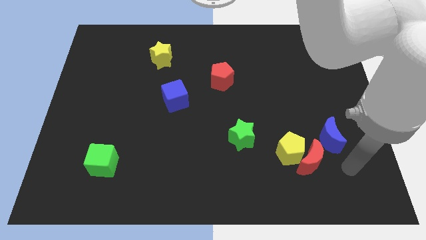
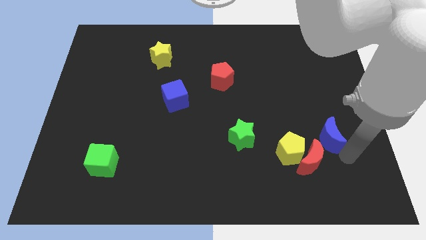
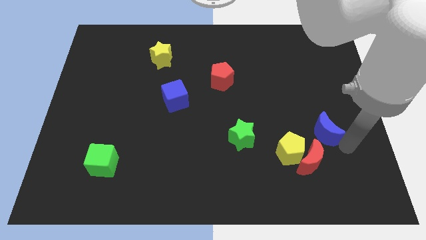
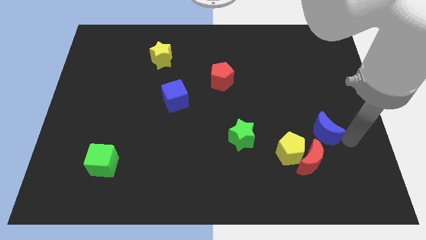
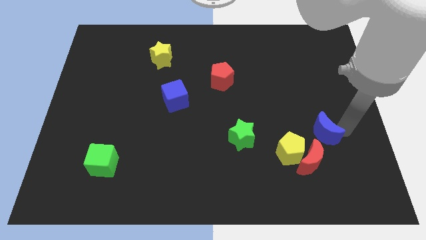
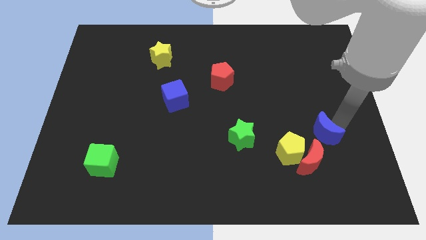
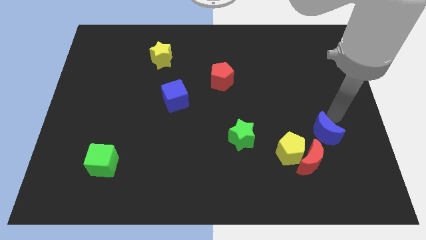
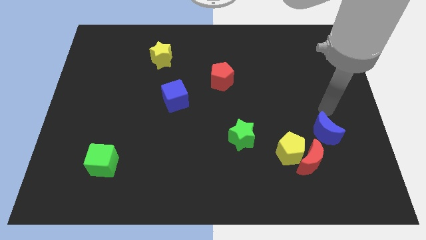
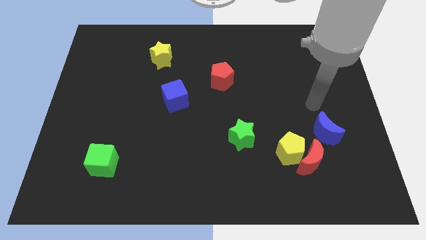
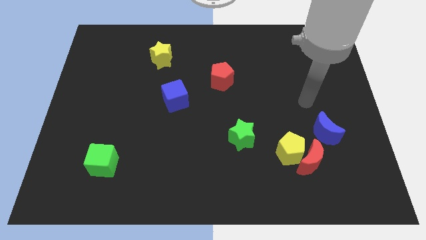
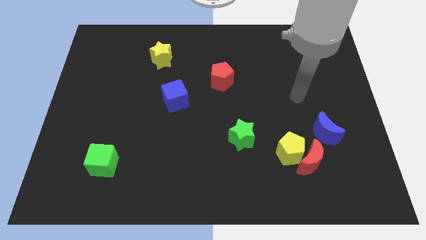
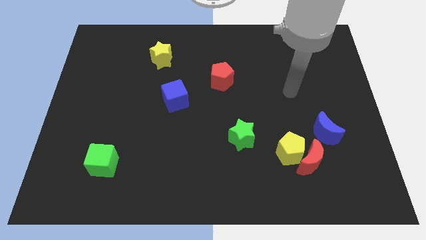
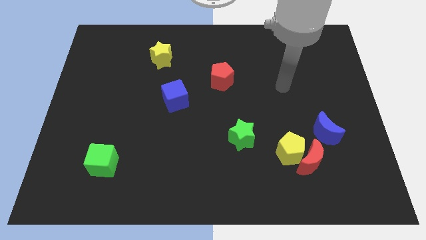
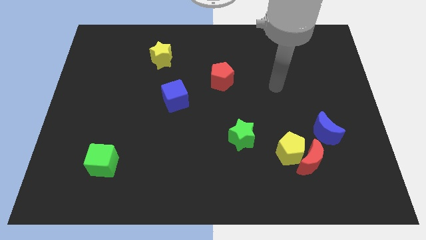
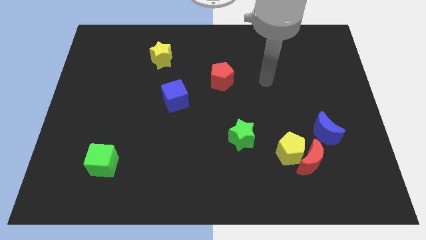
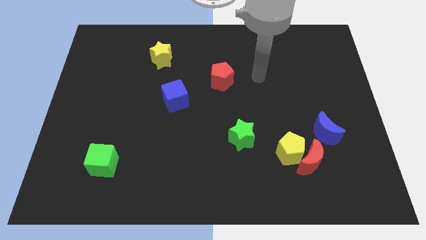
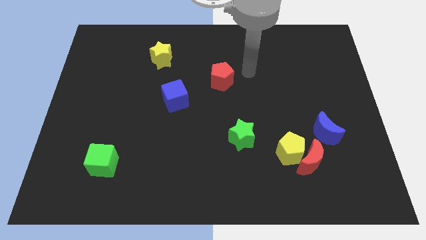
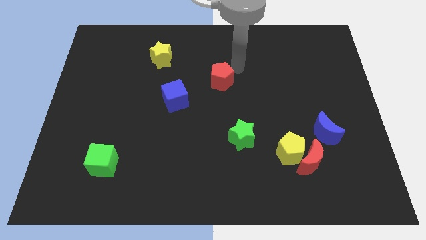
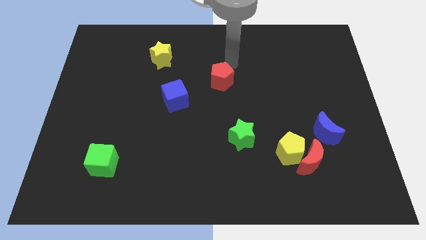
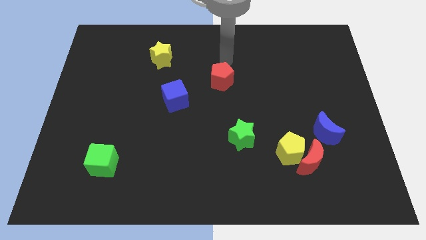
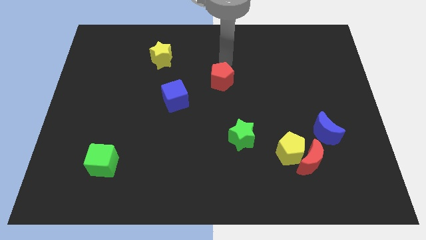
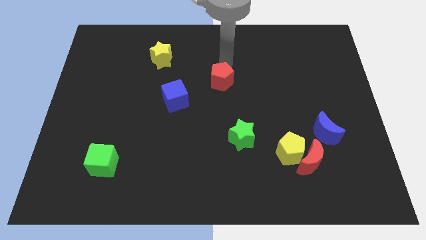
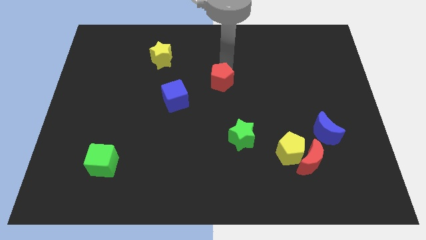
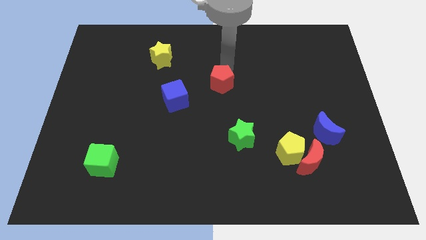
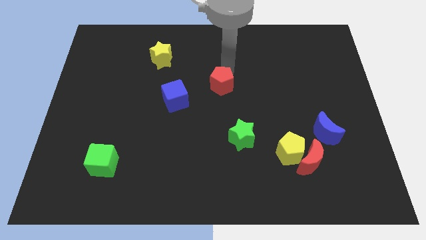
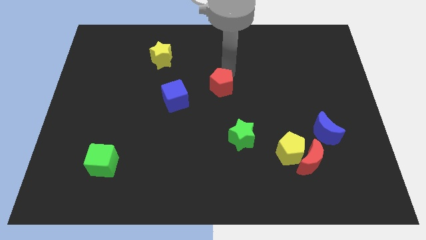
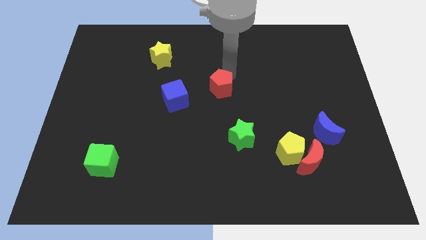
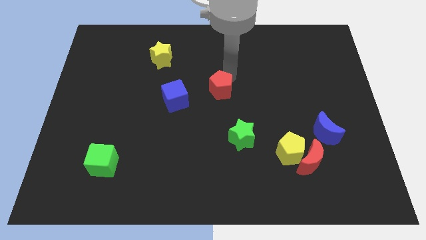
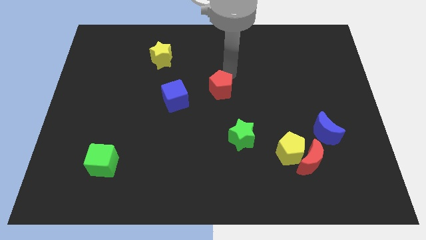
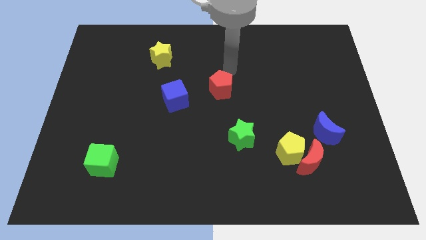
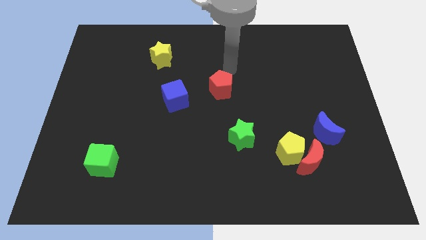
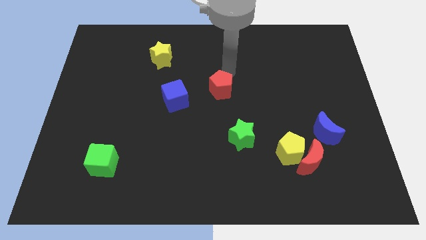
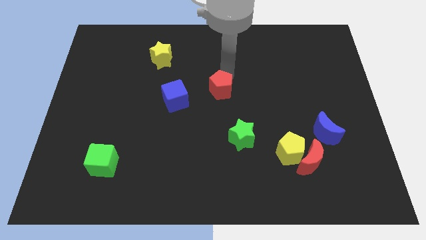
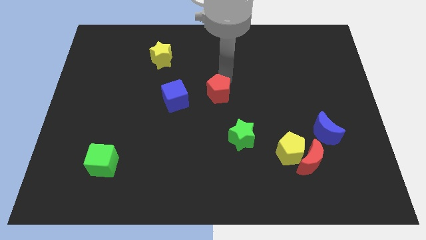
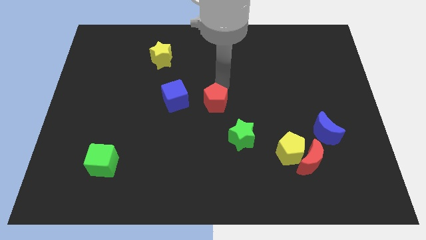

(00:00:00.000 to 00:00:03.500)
slide the red pentagon a bit down

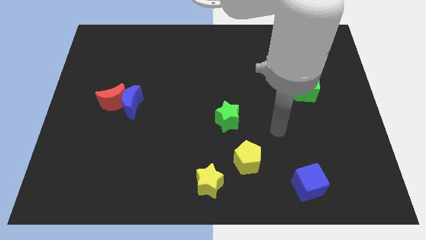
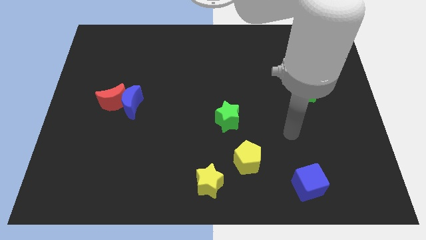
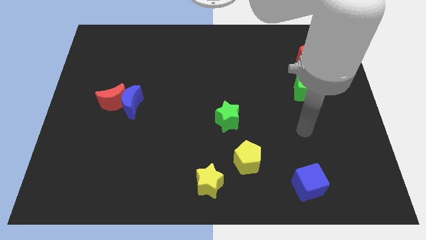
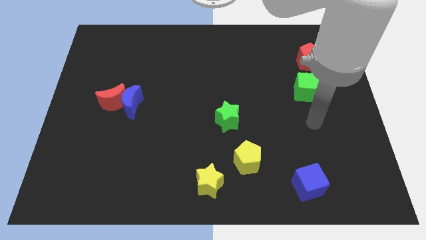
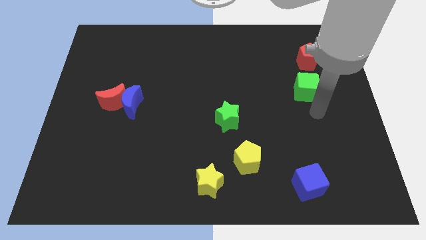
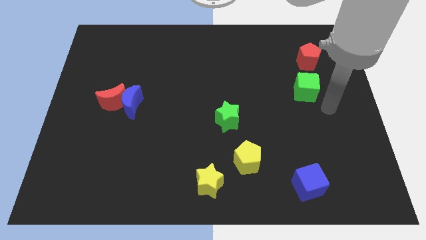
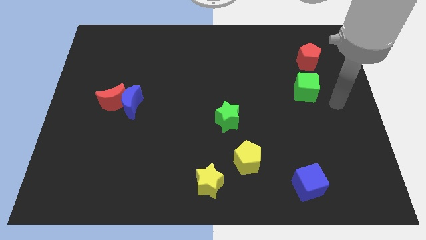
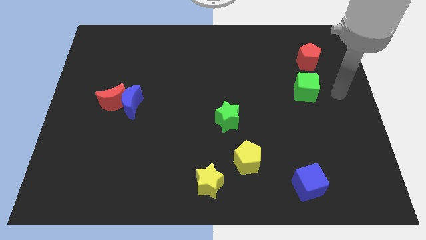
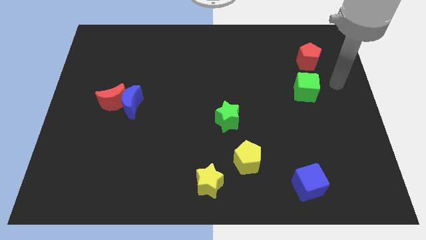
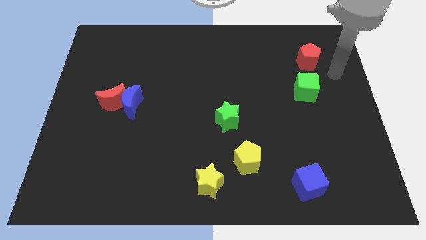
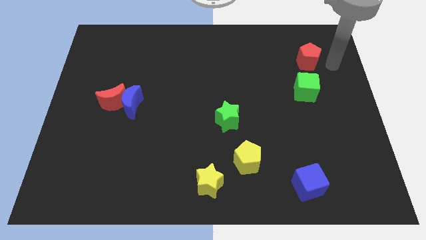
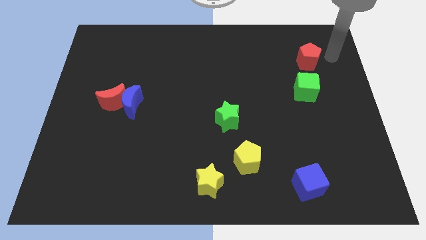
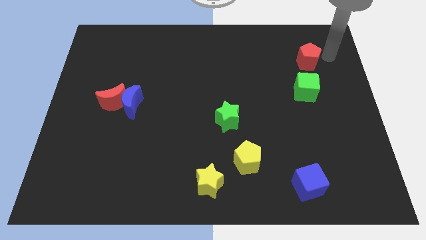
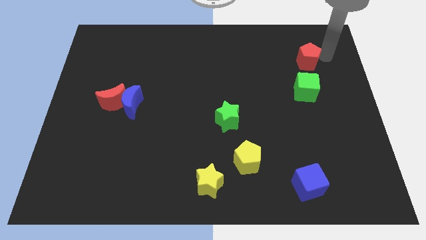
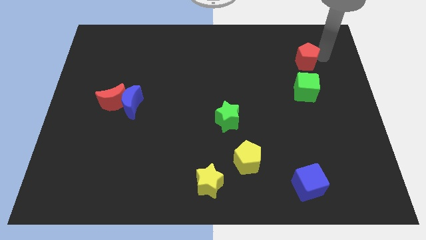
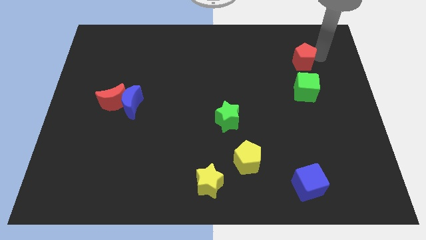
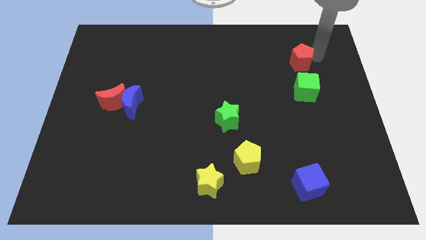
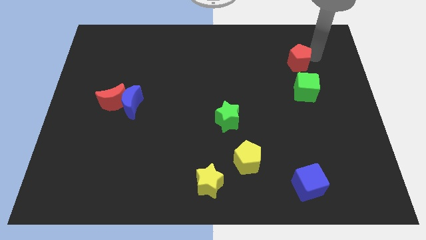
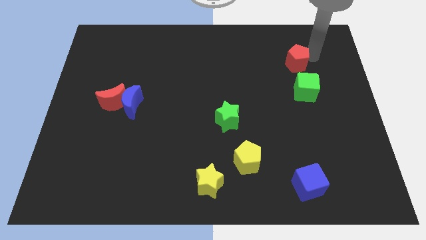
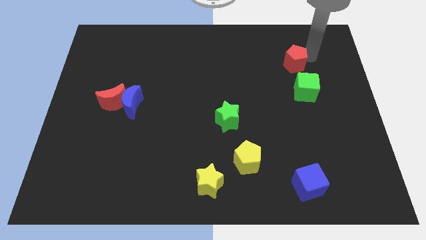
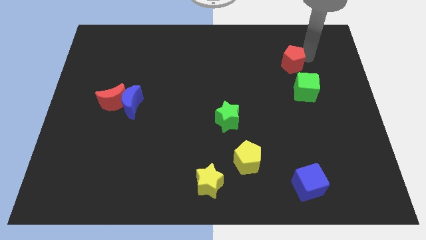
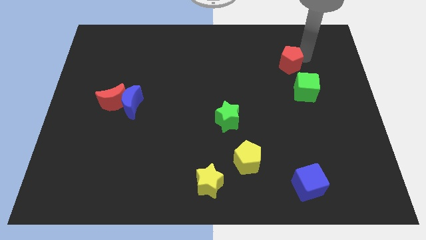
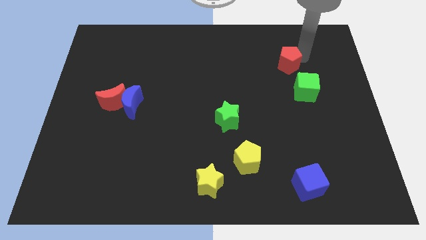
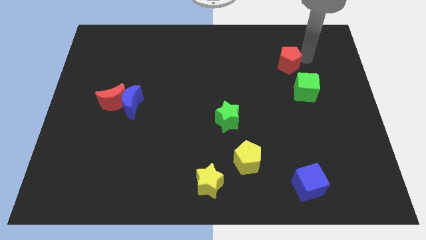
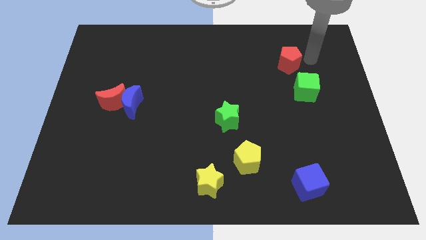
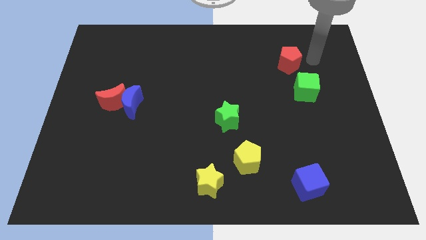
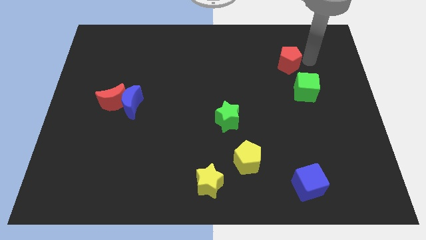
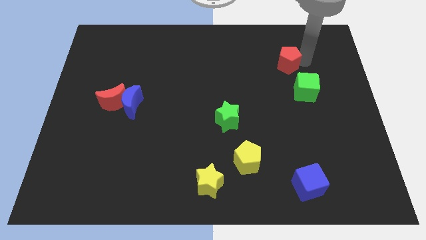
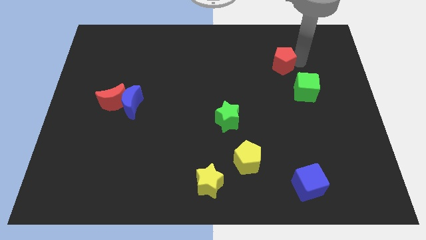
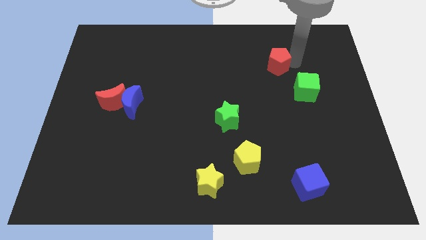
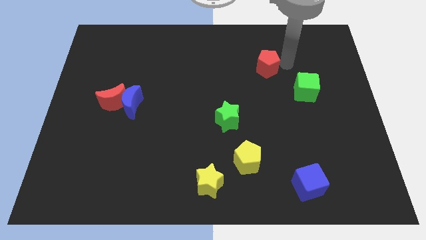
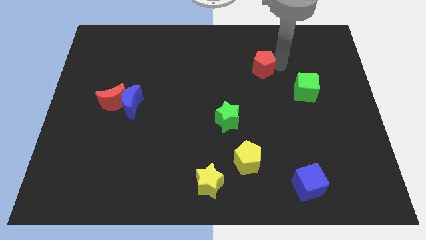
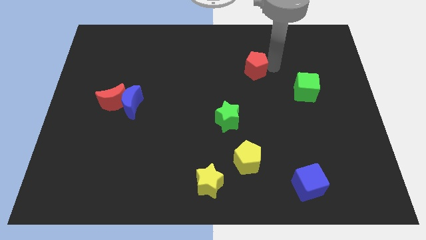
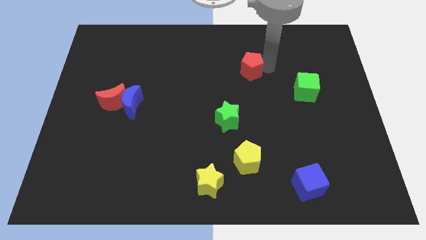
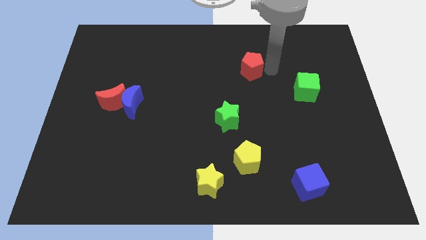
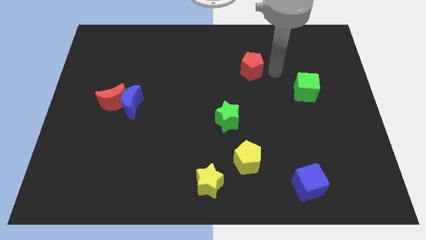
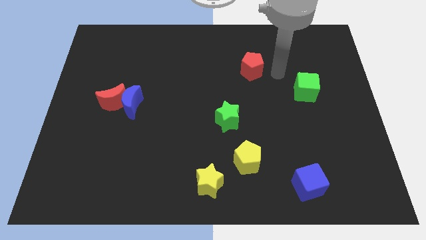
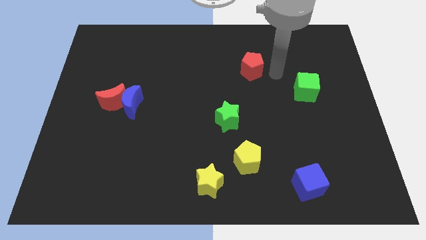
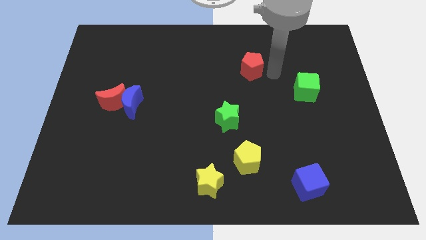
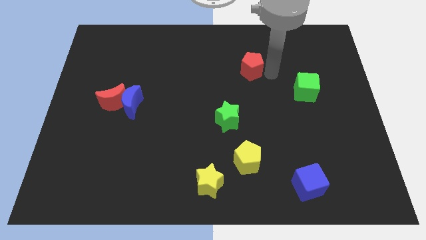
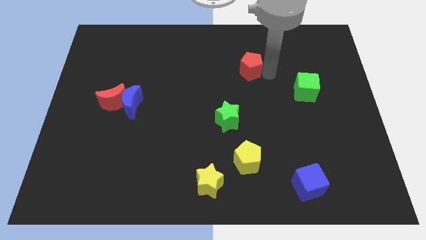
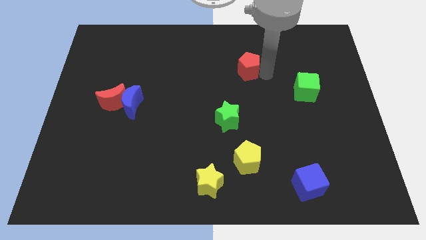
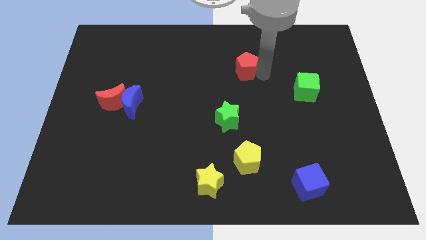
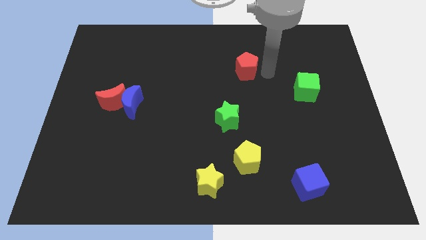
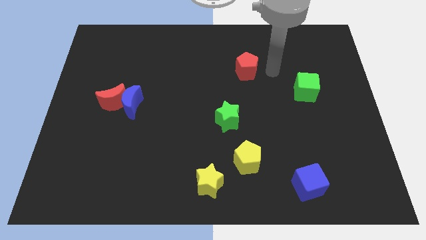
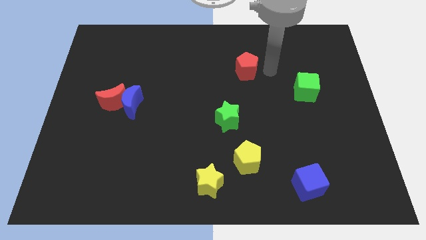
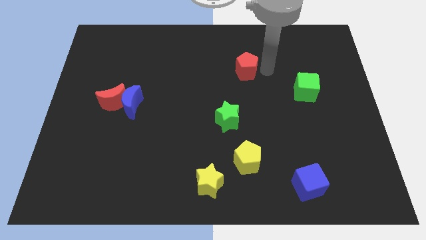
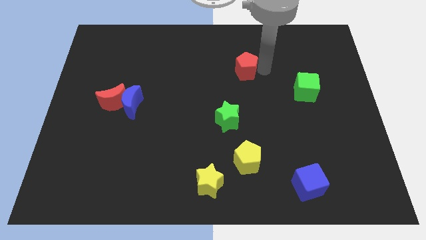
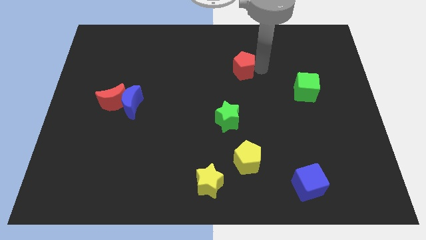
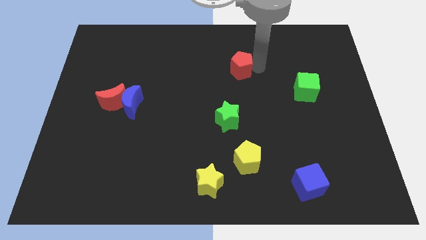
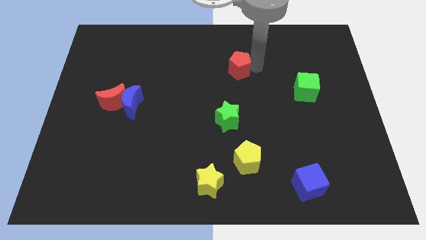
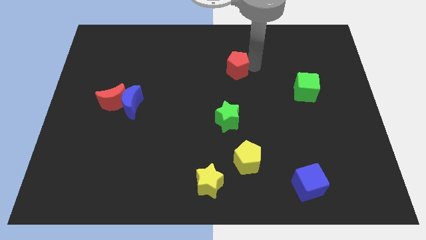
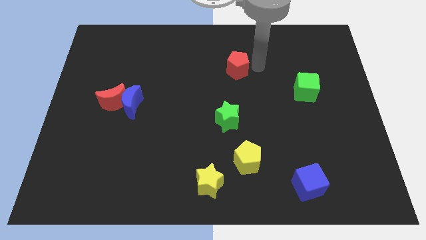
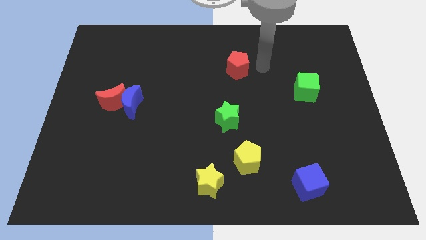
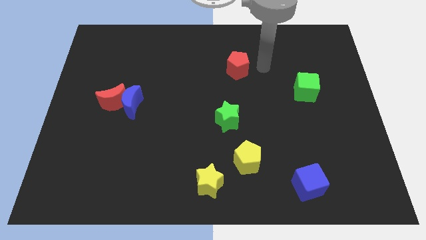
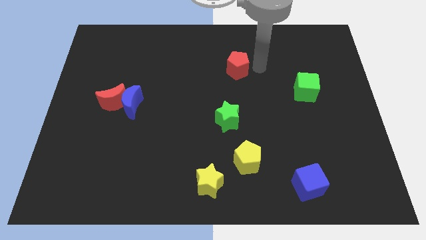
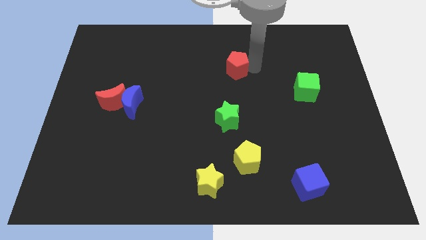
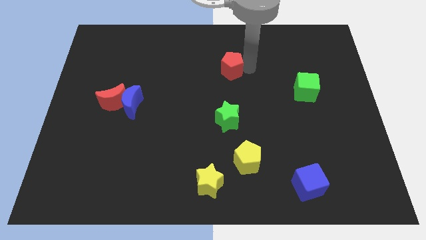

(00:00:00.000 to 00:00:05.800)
push the red pentagon to the left
